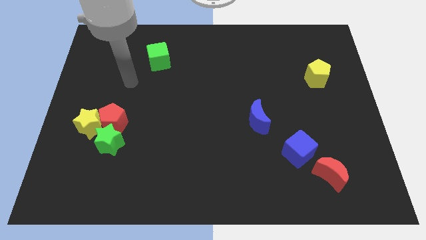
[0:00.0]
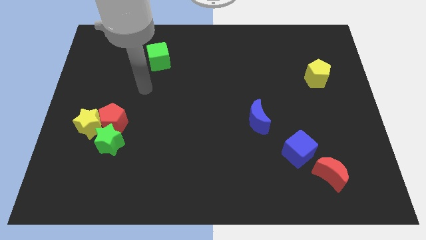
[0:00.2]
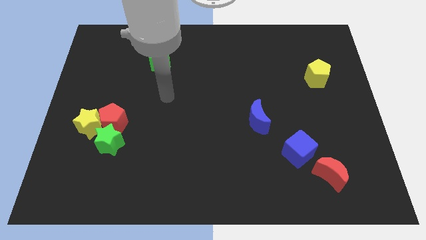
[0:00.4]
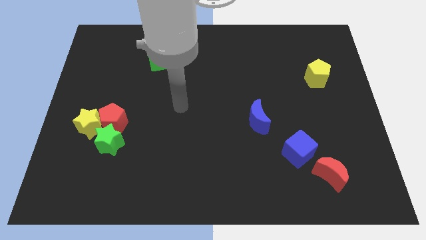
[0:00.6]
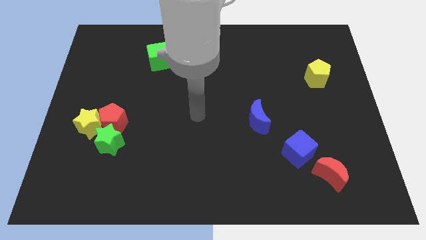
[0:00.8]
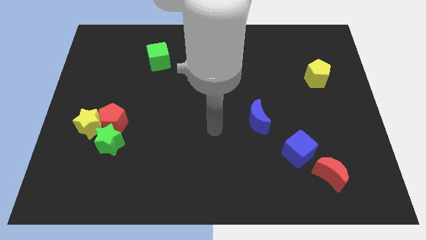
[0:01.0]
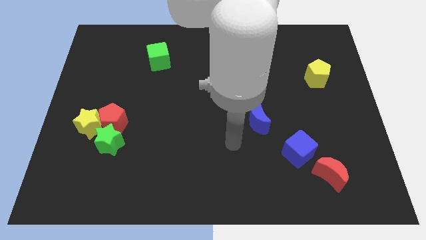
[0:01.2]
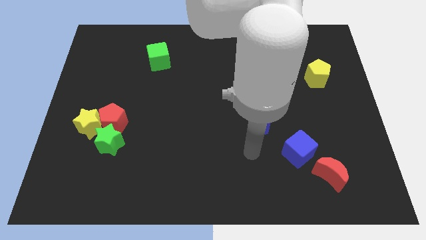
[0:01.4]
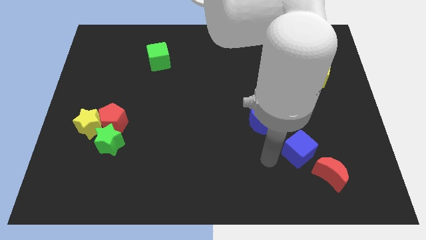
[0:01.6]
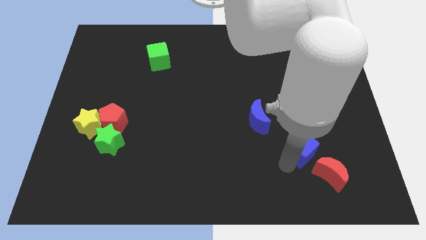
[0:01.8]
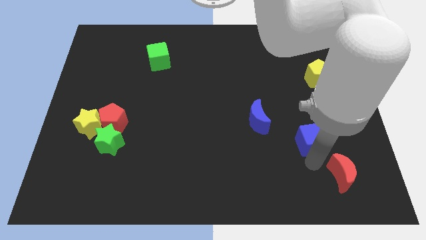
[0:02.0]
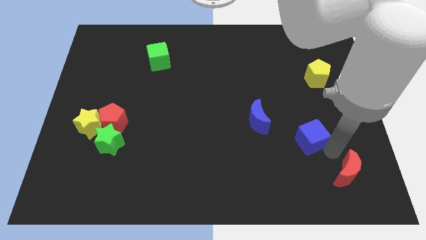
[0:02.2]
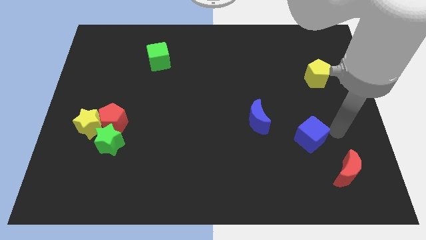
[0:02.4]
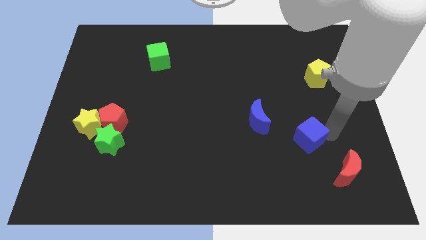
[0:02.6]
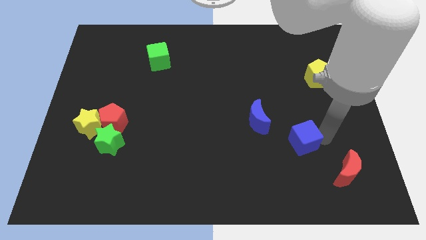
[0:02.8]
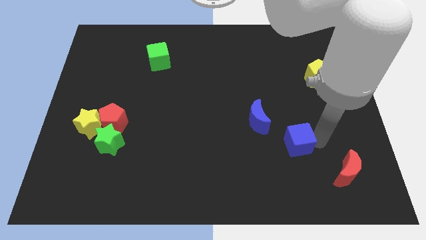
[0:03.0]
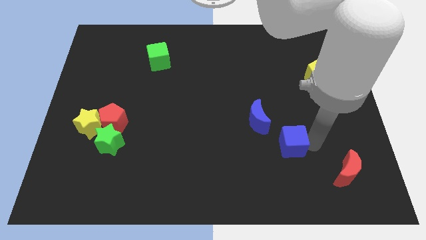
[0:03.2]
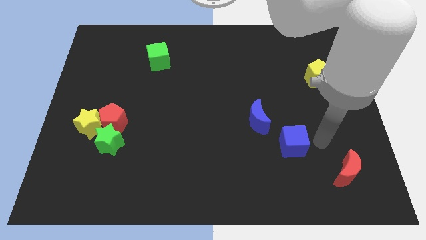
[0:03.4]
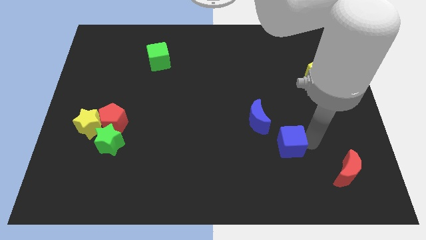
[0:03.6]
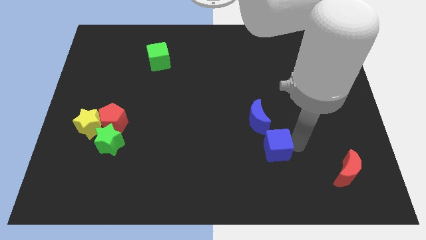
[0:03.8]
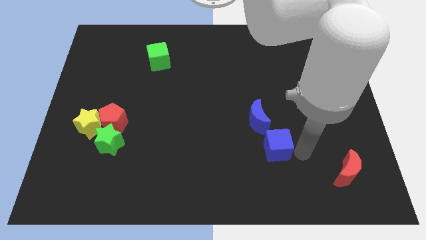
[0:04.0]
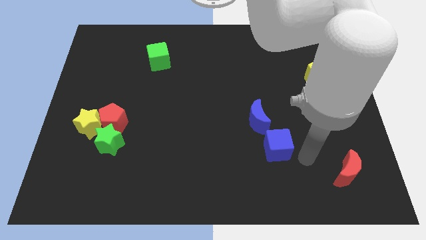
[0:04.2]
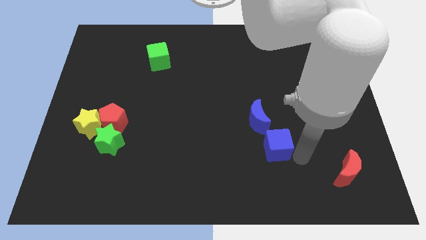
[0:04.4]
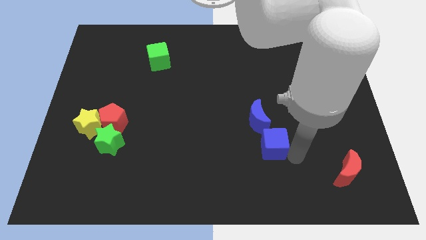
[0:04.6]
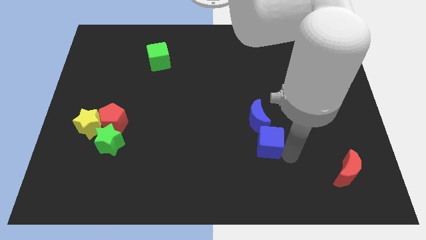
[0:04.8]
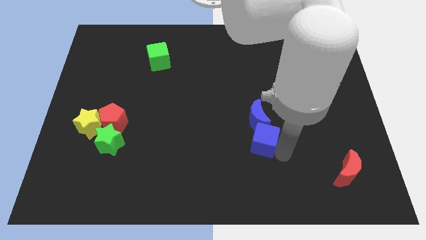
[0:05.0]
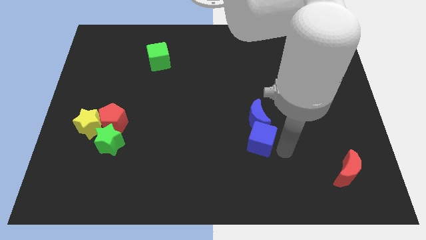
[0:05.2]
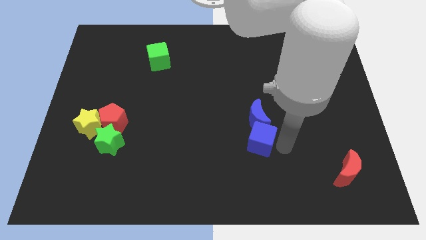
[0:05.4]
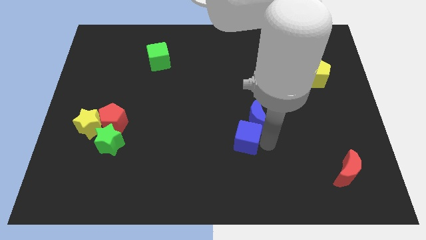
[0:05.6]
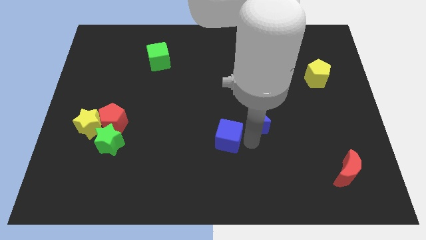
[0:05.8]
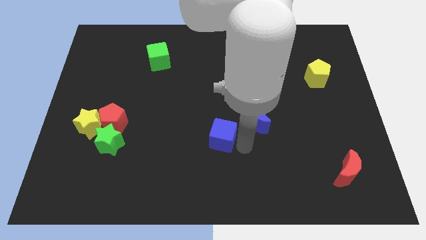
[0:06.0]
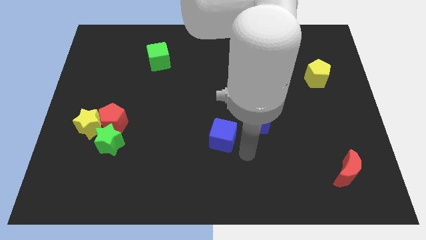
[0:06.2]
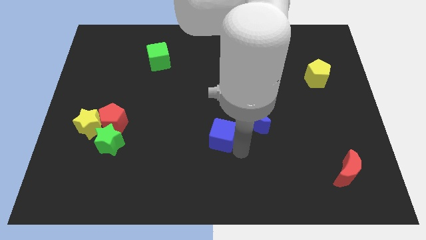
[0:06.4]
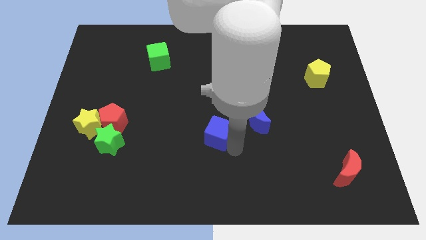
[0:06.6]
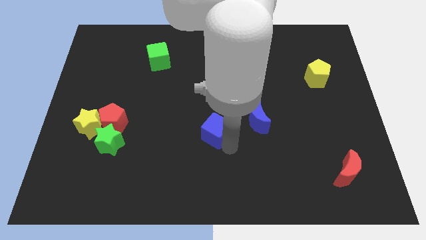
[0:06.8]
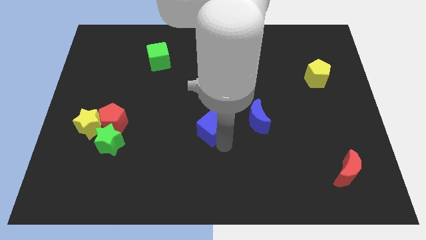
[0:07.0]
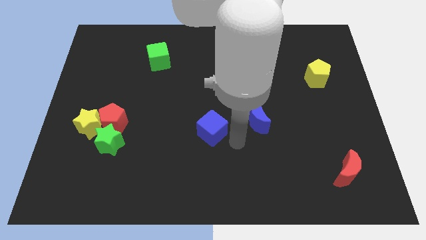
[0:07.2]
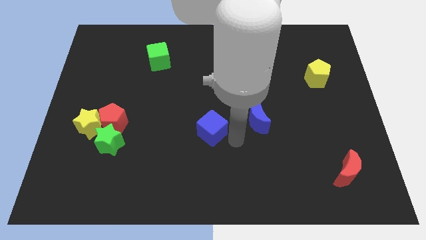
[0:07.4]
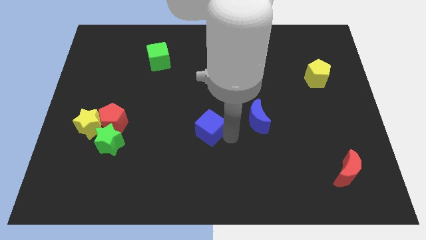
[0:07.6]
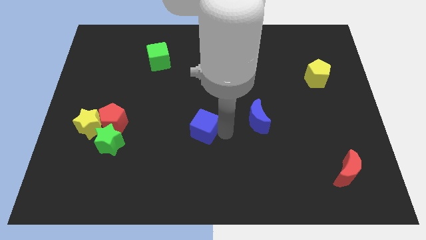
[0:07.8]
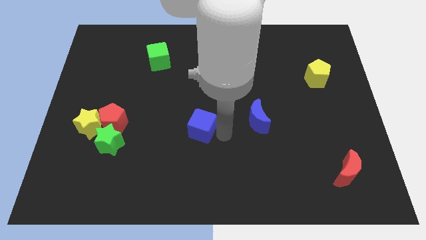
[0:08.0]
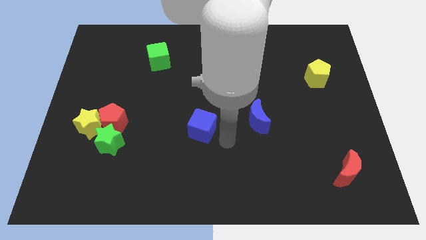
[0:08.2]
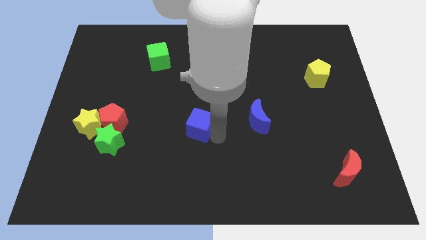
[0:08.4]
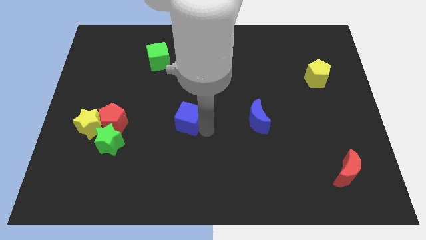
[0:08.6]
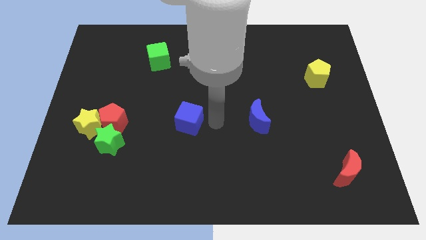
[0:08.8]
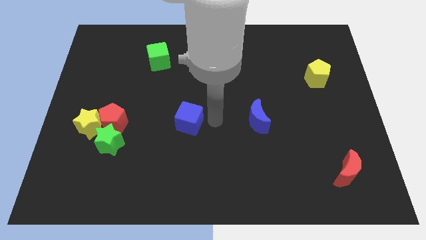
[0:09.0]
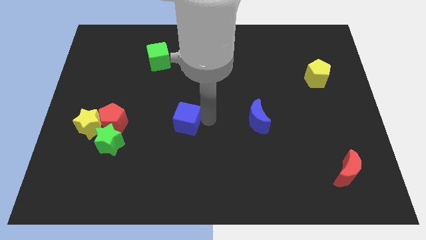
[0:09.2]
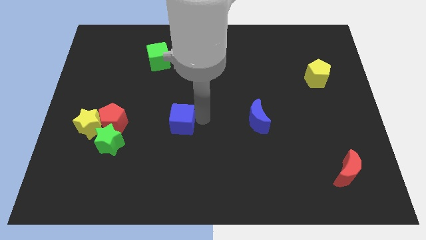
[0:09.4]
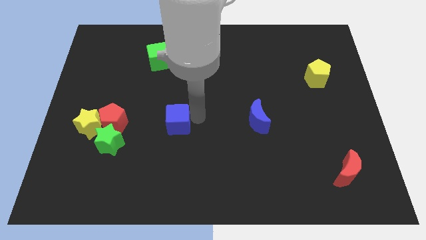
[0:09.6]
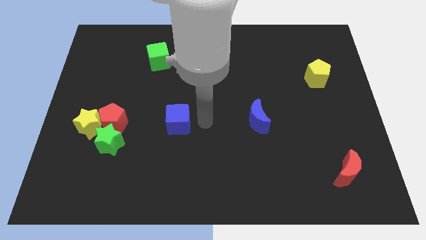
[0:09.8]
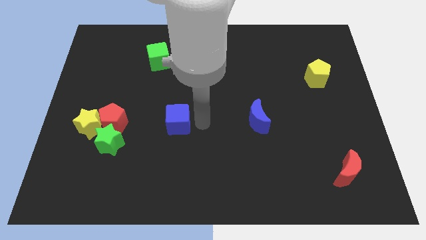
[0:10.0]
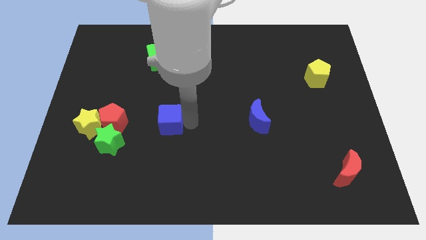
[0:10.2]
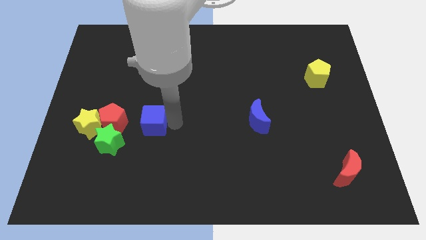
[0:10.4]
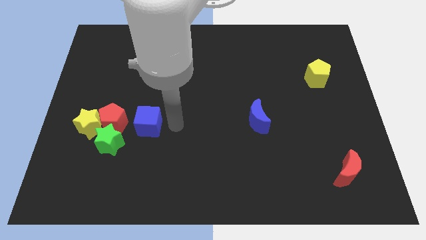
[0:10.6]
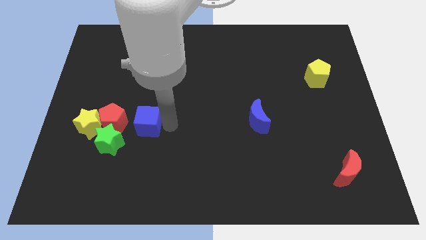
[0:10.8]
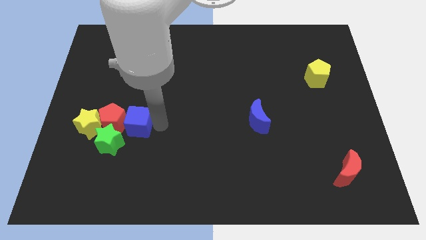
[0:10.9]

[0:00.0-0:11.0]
slide the blue cube to the red pentagon

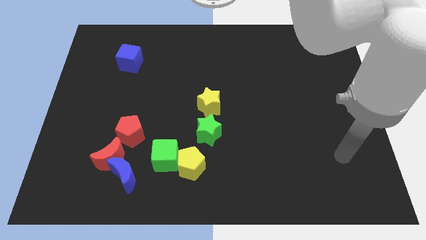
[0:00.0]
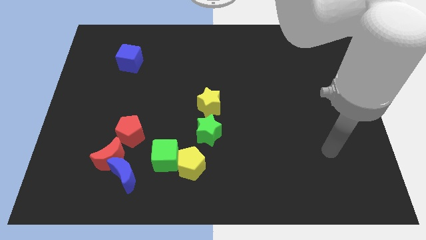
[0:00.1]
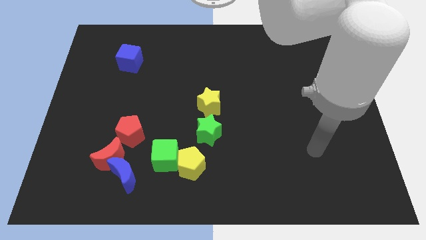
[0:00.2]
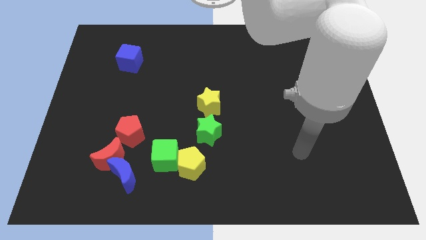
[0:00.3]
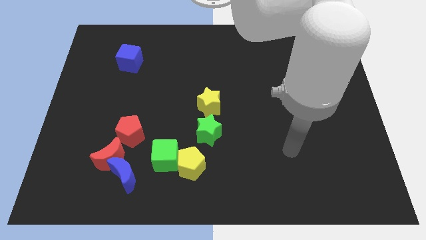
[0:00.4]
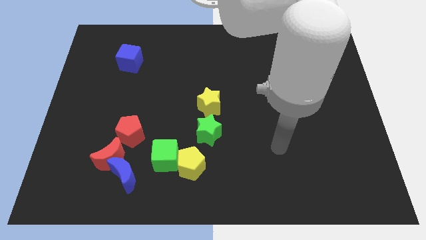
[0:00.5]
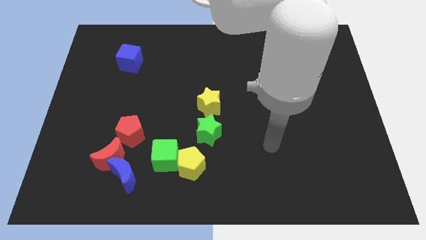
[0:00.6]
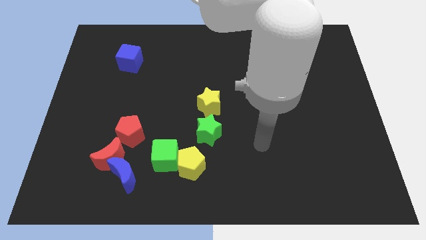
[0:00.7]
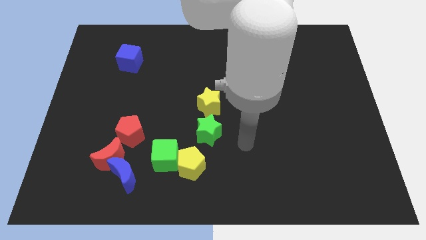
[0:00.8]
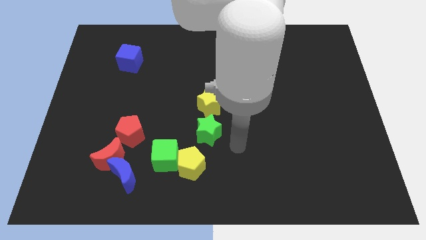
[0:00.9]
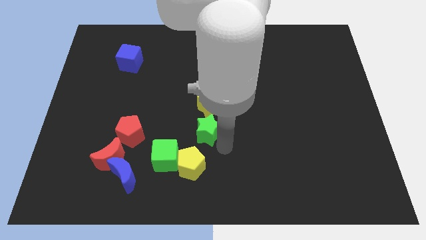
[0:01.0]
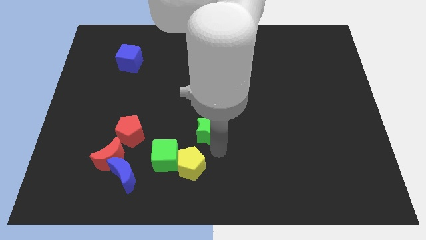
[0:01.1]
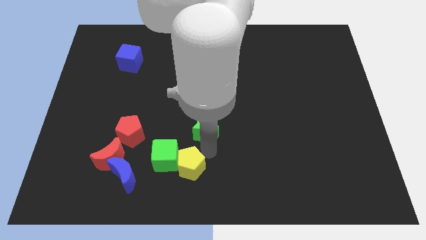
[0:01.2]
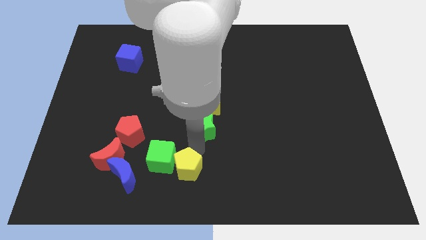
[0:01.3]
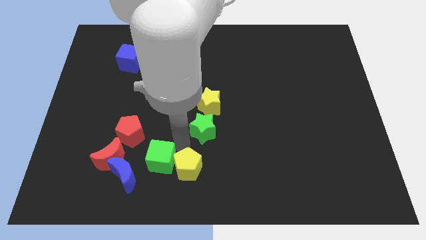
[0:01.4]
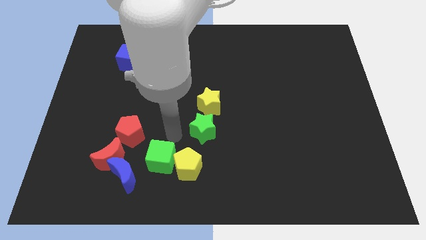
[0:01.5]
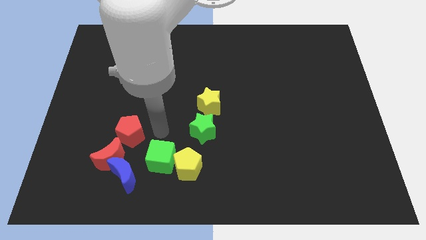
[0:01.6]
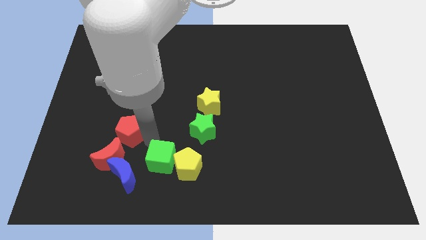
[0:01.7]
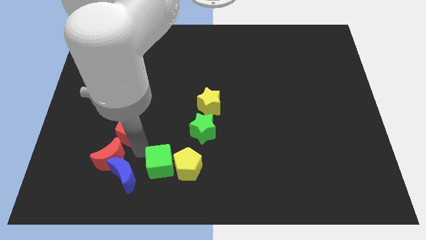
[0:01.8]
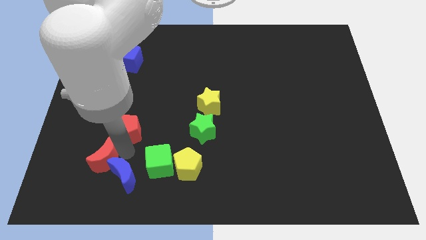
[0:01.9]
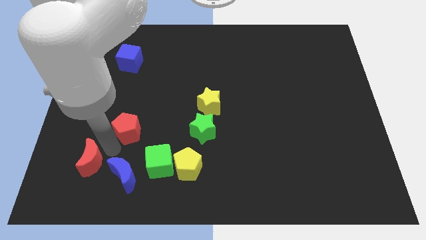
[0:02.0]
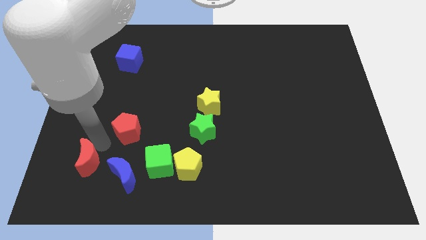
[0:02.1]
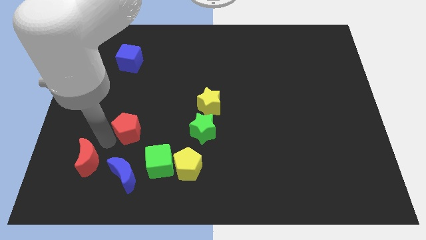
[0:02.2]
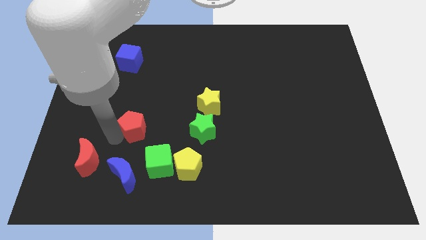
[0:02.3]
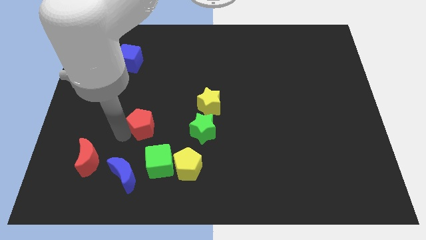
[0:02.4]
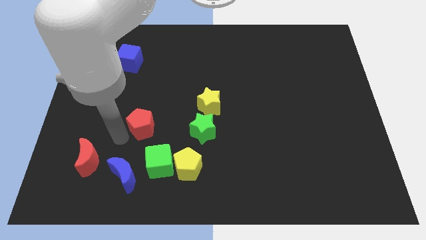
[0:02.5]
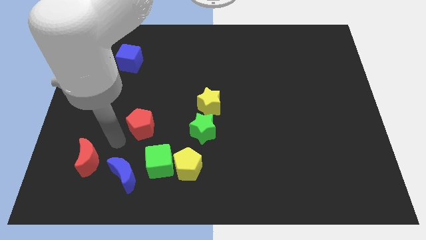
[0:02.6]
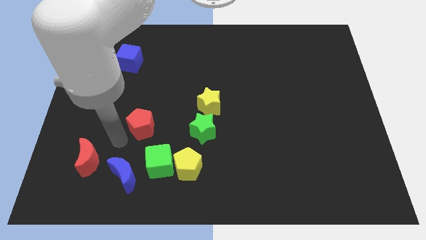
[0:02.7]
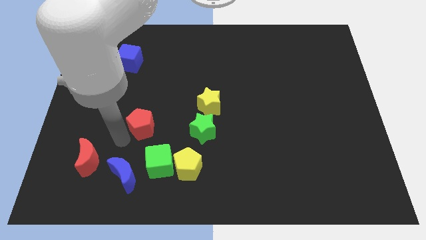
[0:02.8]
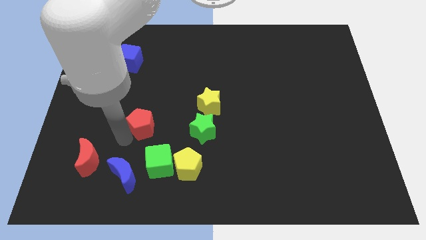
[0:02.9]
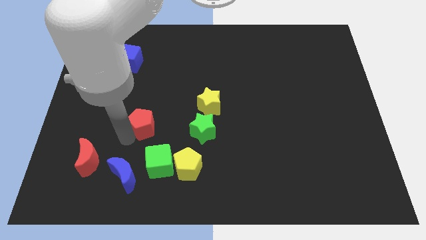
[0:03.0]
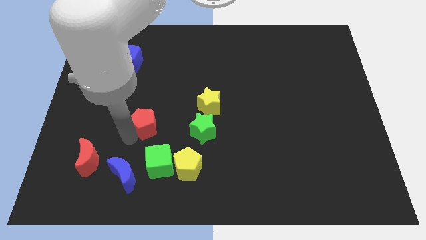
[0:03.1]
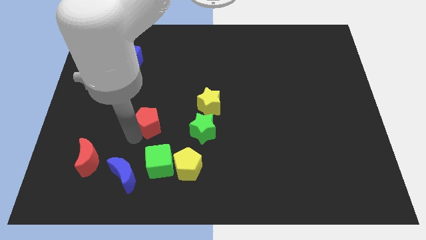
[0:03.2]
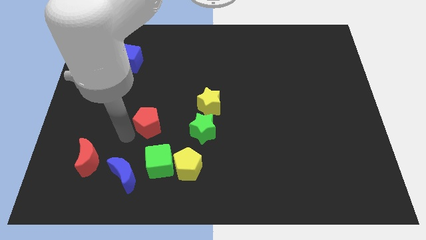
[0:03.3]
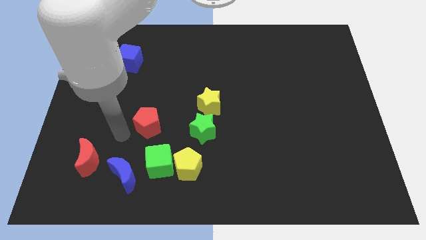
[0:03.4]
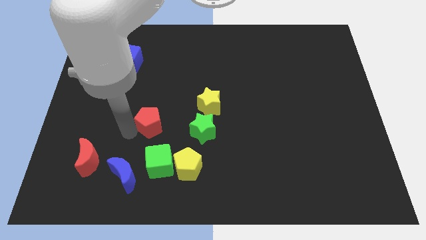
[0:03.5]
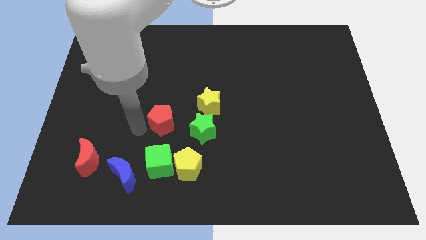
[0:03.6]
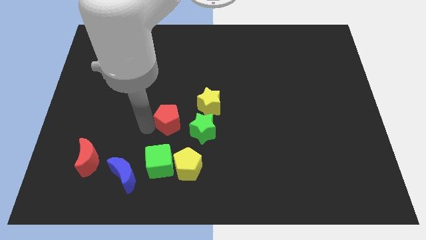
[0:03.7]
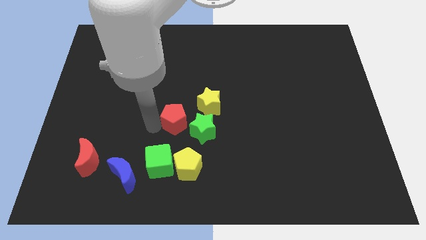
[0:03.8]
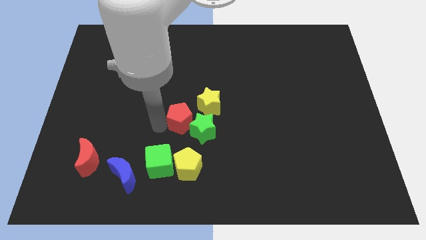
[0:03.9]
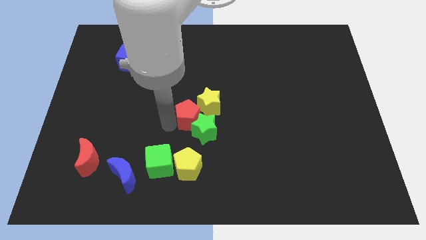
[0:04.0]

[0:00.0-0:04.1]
move the red pentagon towards the yellow star
